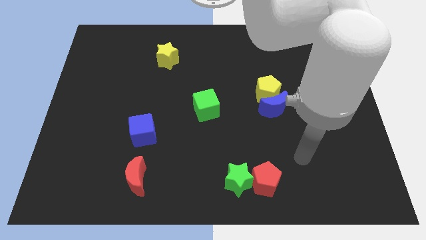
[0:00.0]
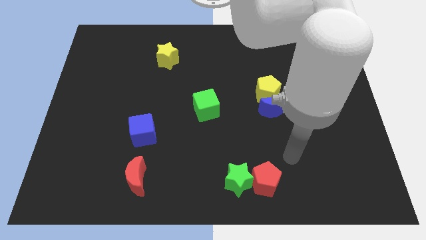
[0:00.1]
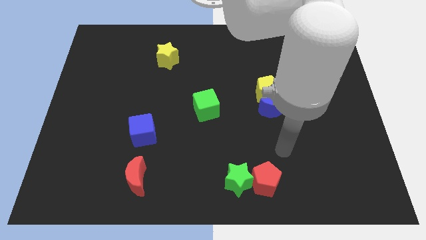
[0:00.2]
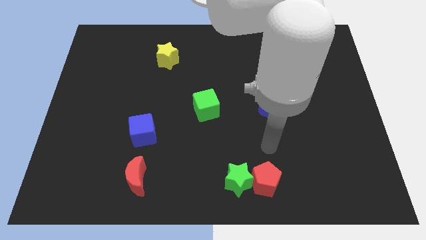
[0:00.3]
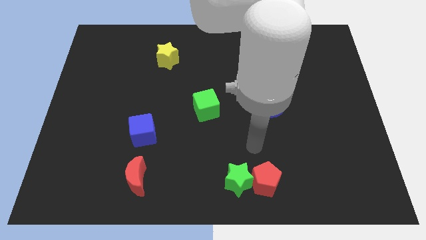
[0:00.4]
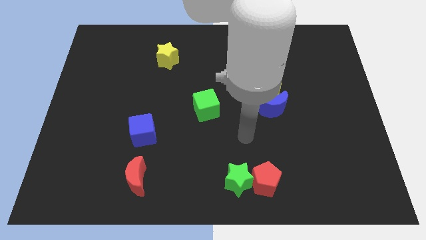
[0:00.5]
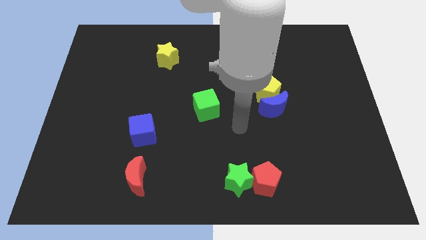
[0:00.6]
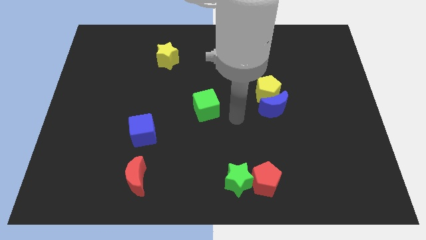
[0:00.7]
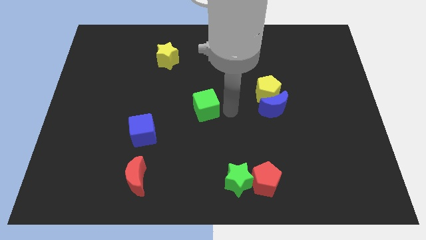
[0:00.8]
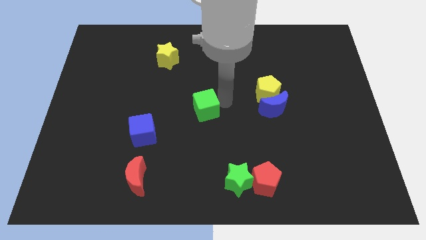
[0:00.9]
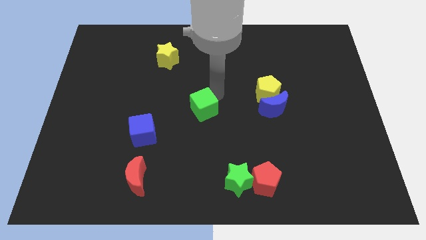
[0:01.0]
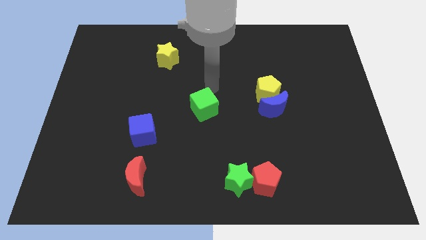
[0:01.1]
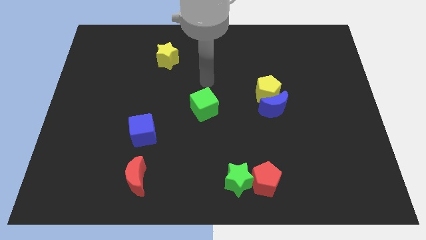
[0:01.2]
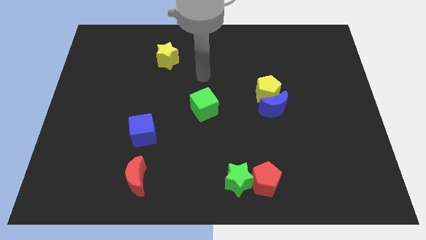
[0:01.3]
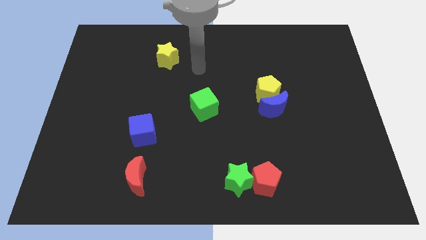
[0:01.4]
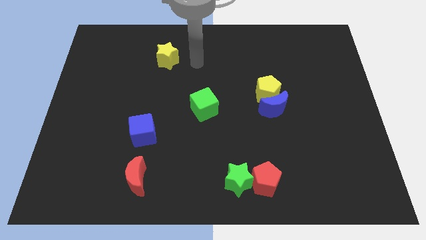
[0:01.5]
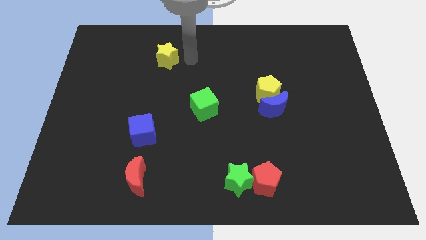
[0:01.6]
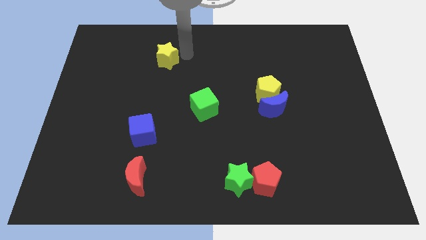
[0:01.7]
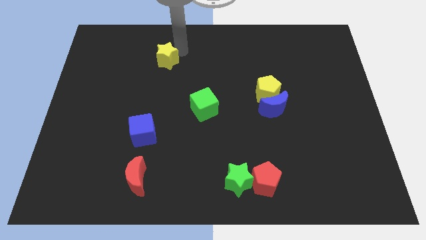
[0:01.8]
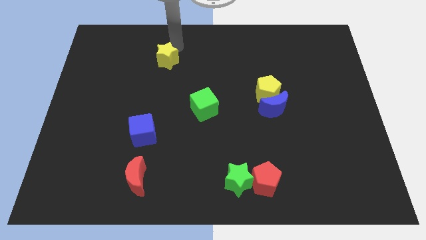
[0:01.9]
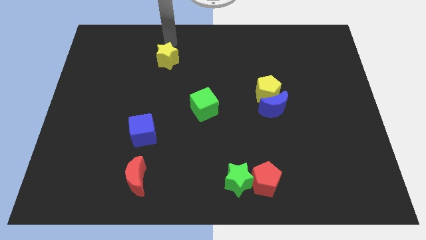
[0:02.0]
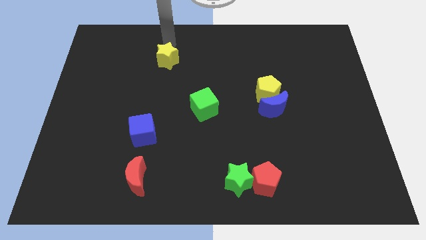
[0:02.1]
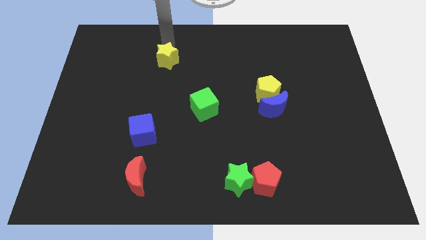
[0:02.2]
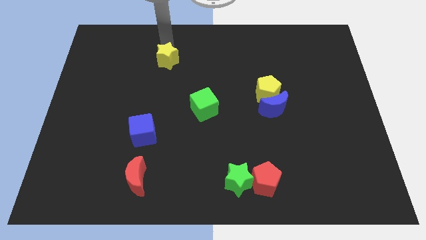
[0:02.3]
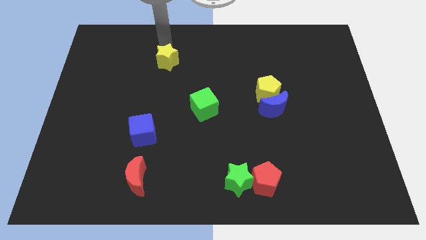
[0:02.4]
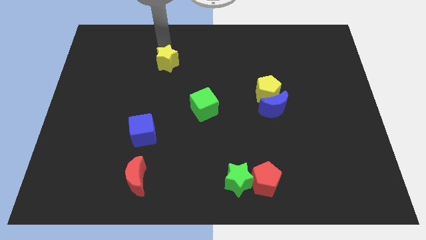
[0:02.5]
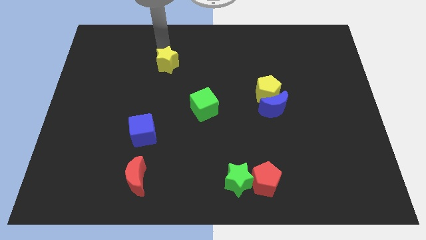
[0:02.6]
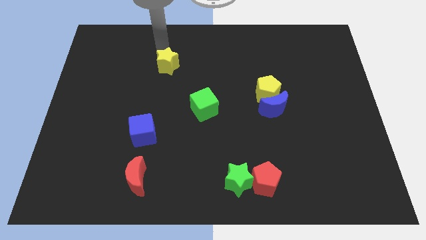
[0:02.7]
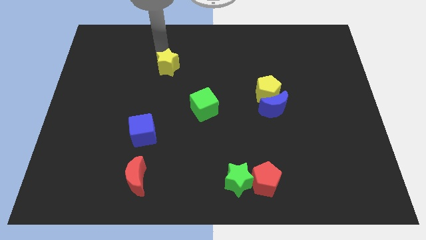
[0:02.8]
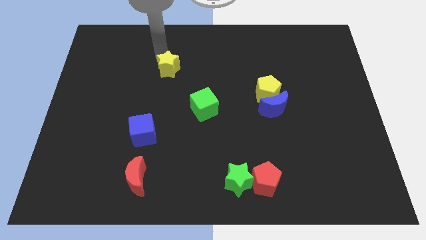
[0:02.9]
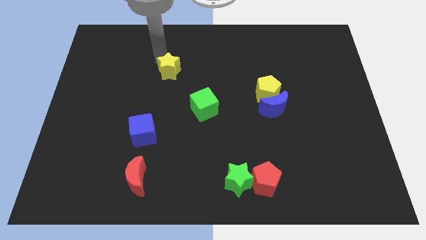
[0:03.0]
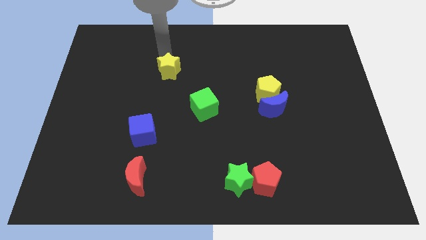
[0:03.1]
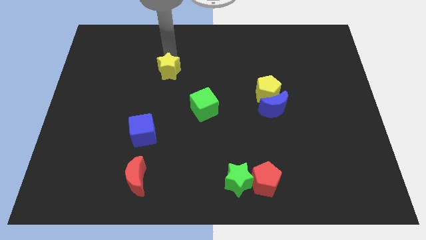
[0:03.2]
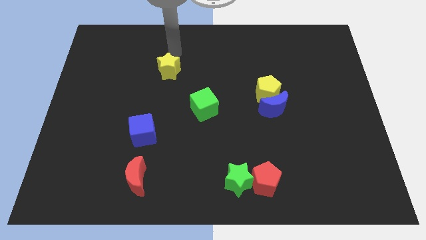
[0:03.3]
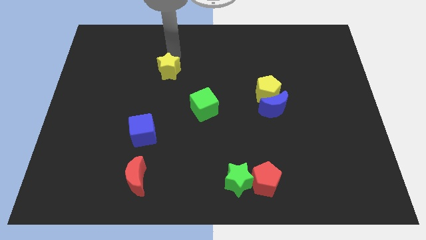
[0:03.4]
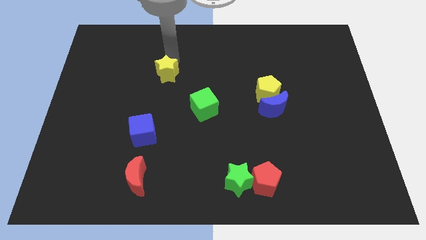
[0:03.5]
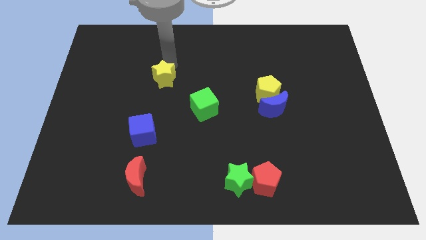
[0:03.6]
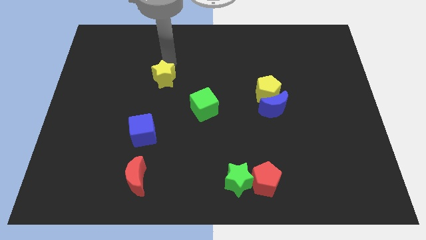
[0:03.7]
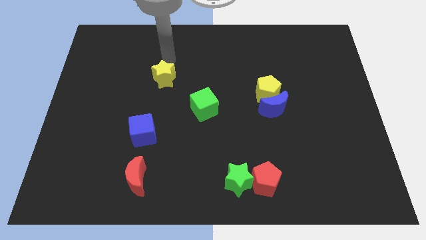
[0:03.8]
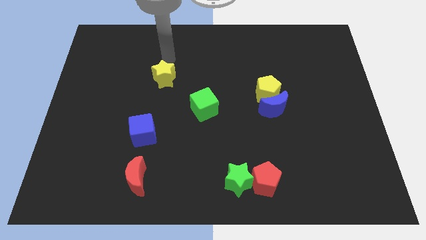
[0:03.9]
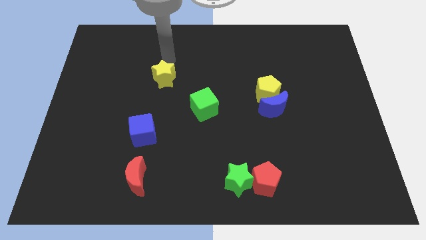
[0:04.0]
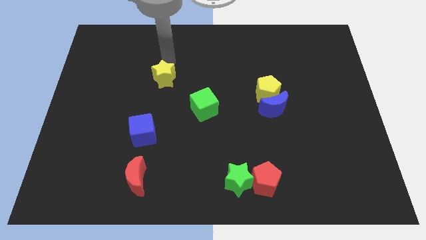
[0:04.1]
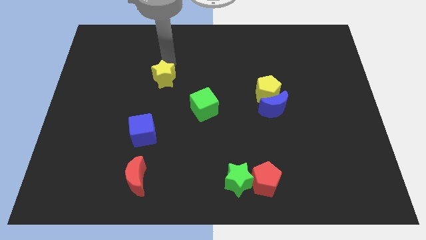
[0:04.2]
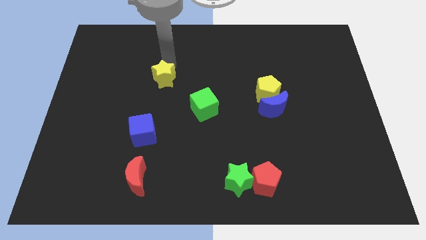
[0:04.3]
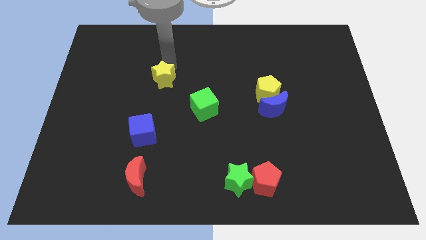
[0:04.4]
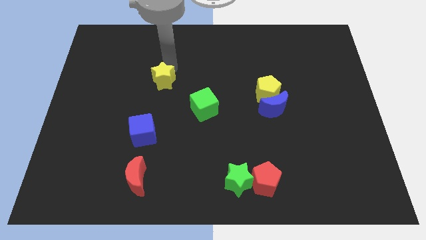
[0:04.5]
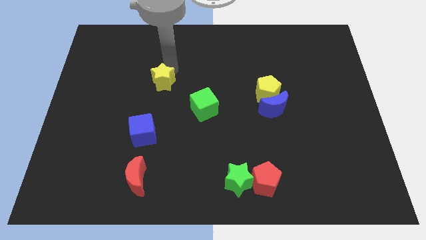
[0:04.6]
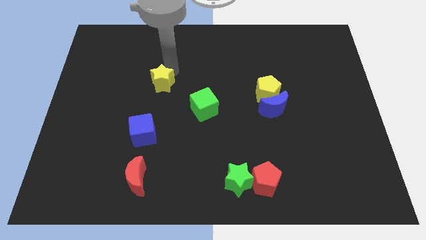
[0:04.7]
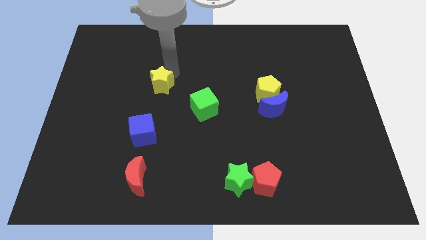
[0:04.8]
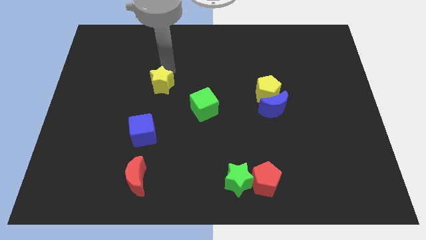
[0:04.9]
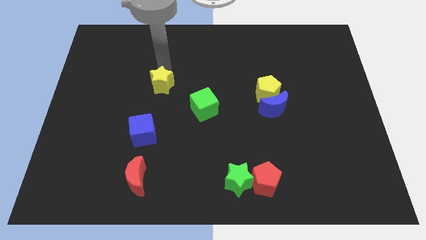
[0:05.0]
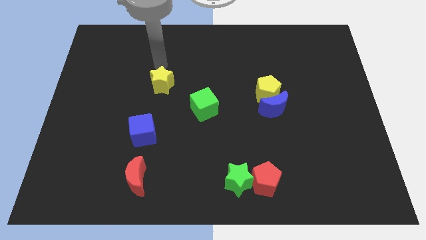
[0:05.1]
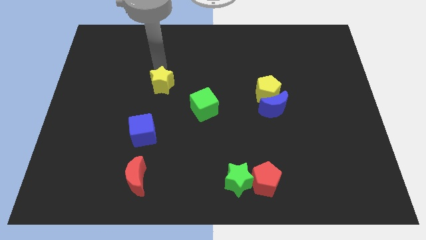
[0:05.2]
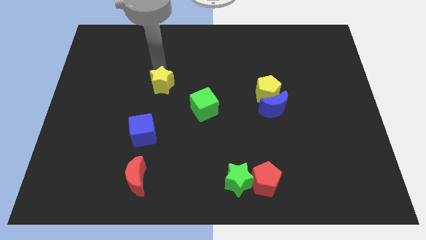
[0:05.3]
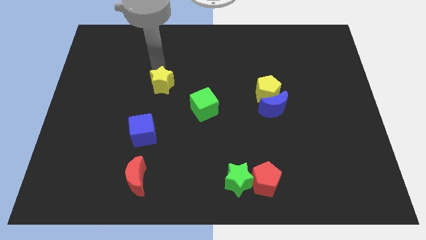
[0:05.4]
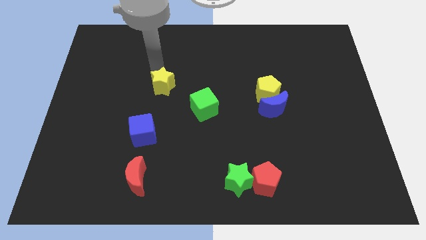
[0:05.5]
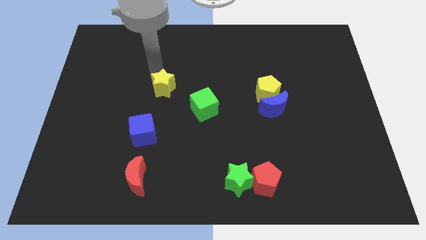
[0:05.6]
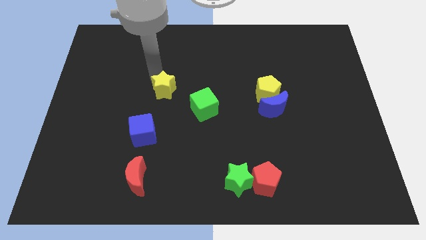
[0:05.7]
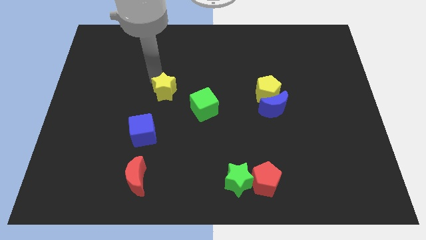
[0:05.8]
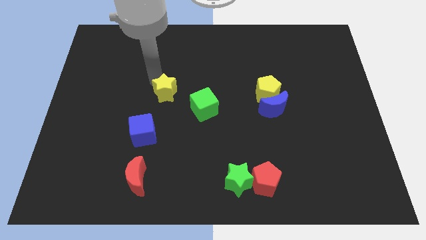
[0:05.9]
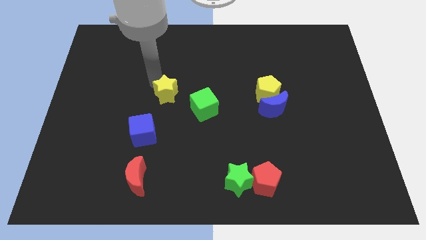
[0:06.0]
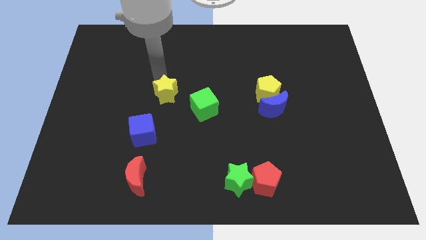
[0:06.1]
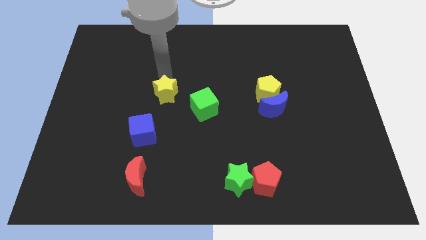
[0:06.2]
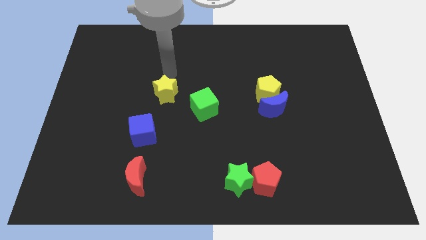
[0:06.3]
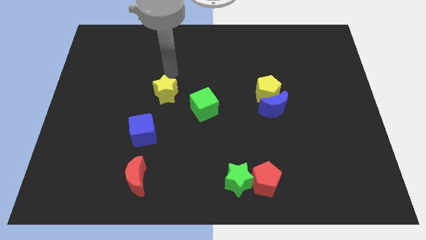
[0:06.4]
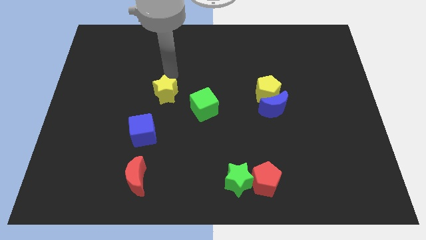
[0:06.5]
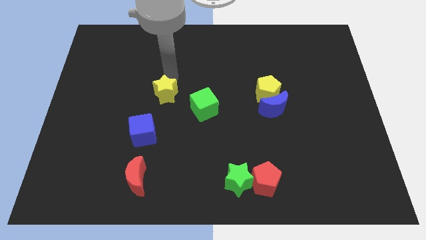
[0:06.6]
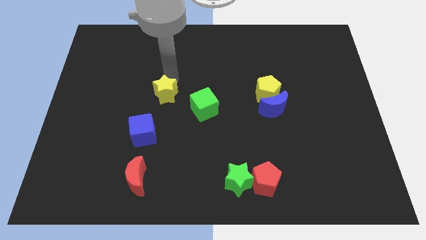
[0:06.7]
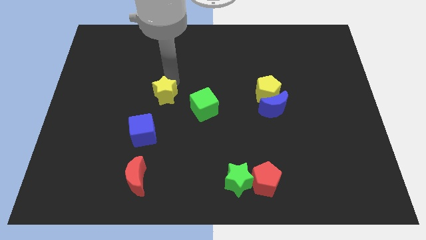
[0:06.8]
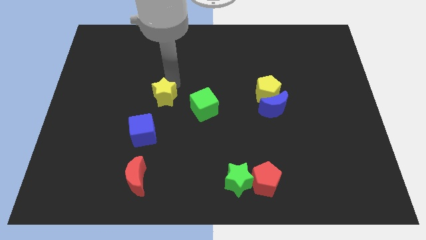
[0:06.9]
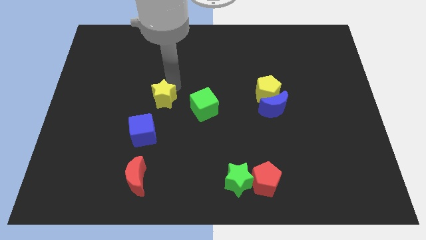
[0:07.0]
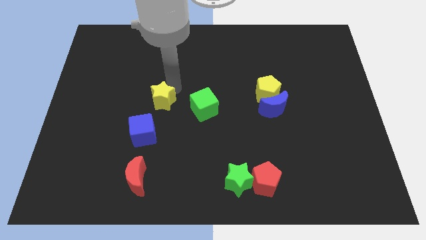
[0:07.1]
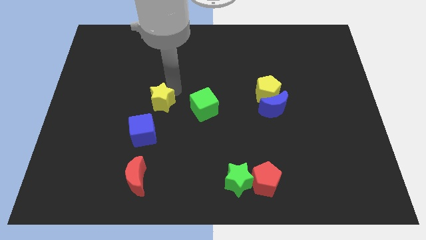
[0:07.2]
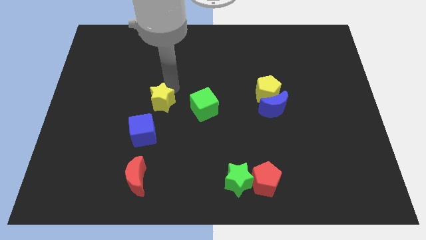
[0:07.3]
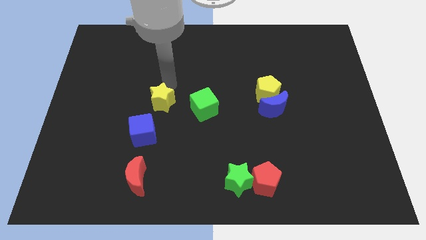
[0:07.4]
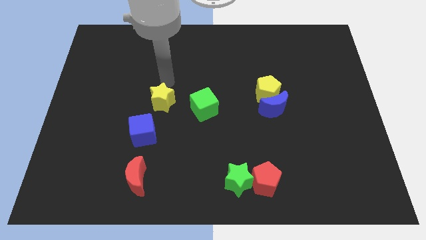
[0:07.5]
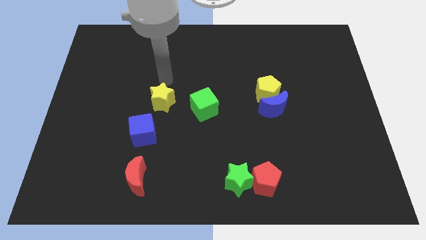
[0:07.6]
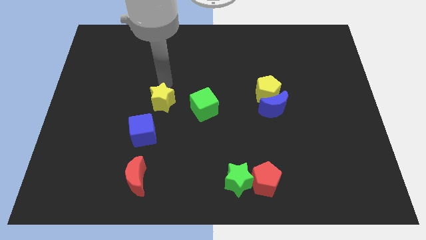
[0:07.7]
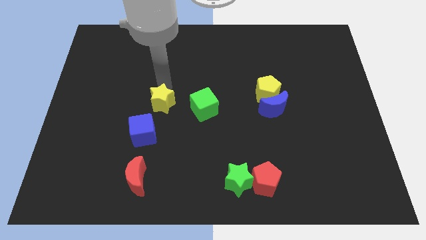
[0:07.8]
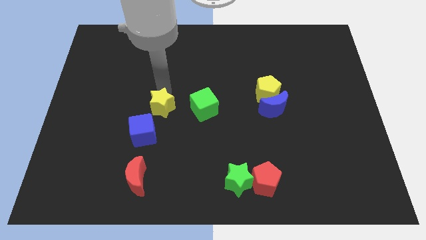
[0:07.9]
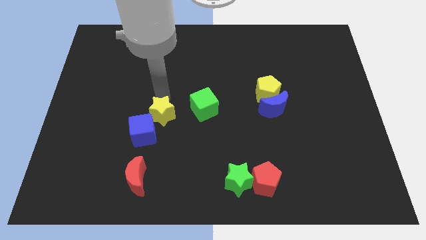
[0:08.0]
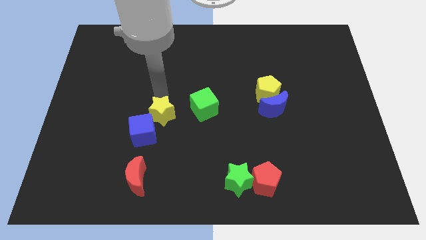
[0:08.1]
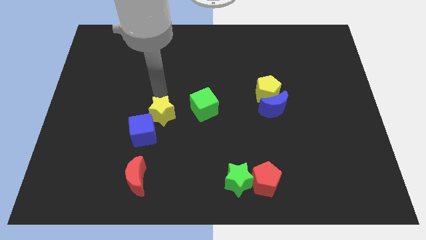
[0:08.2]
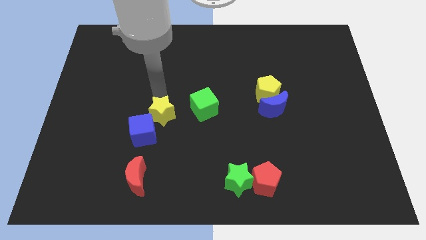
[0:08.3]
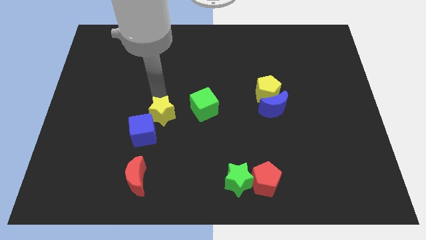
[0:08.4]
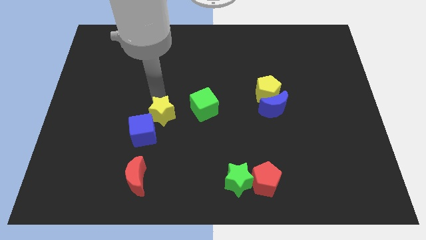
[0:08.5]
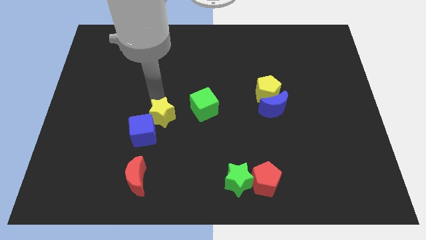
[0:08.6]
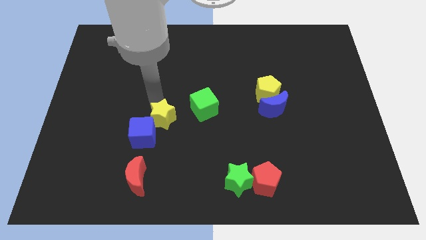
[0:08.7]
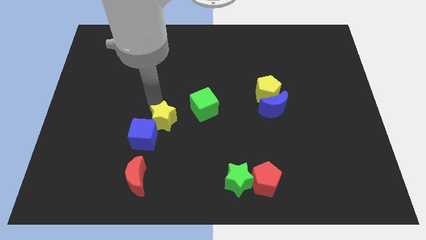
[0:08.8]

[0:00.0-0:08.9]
push the yellow star down
